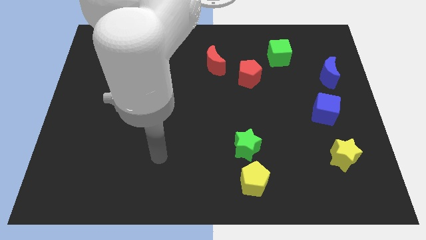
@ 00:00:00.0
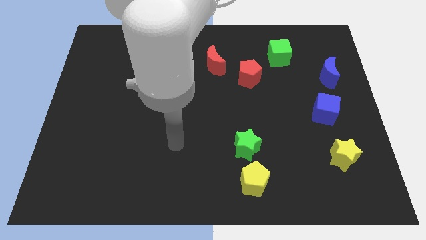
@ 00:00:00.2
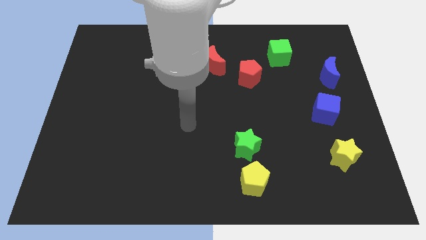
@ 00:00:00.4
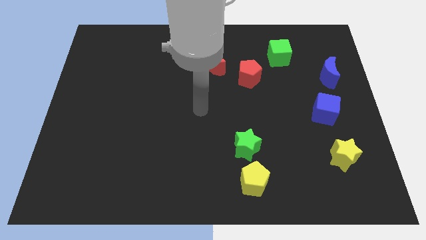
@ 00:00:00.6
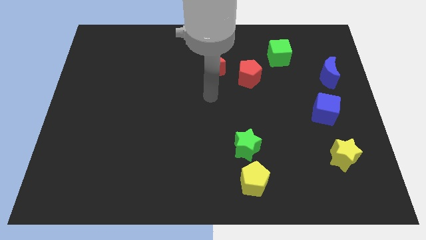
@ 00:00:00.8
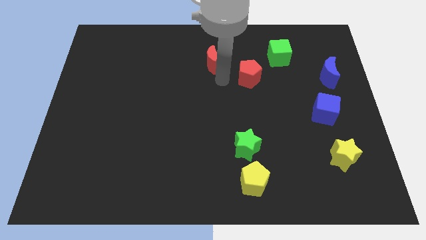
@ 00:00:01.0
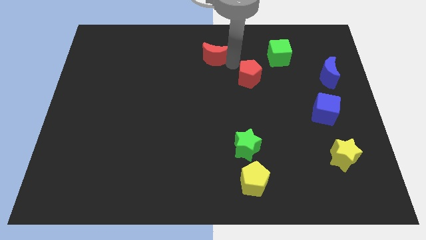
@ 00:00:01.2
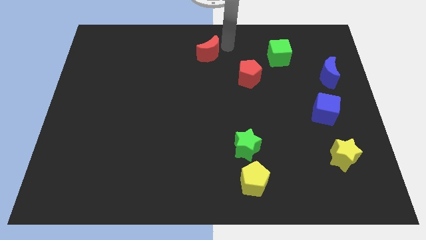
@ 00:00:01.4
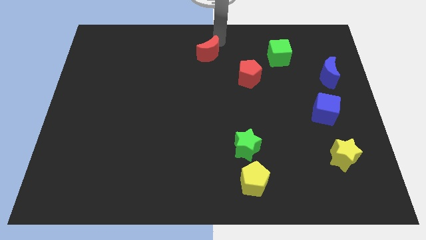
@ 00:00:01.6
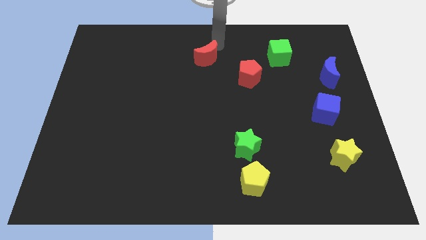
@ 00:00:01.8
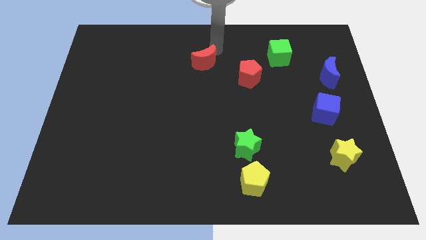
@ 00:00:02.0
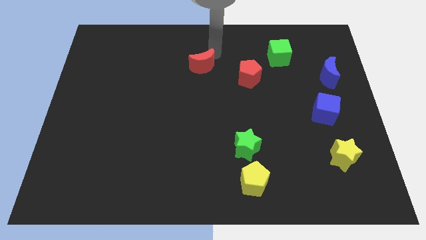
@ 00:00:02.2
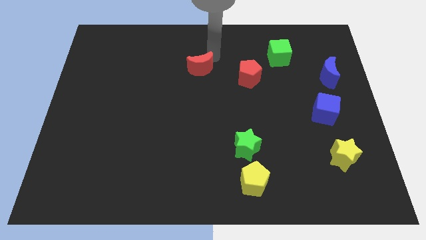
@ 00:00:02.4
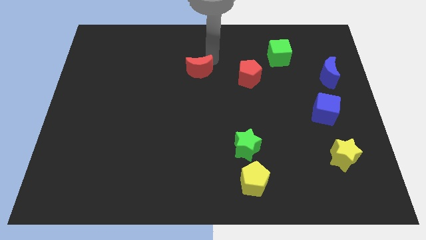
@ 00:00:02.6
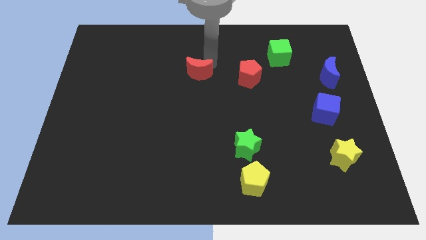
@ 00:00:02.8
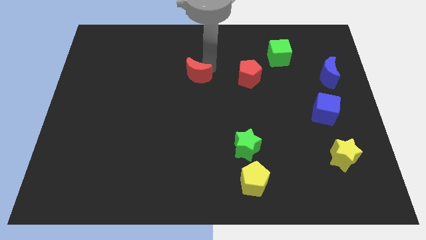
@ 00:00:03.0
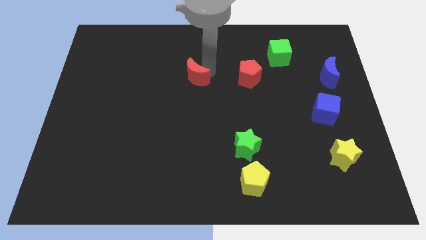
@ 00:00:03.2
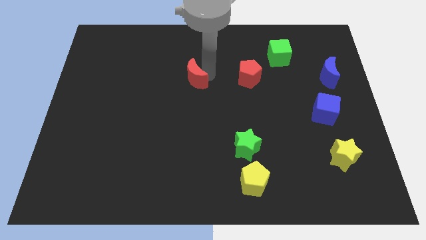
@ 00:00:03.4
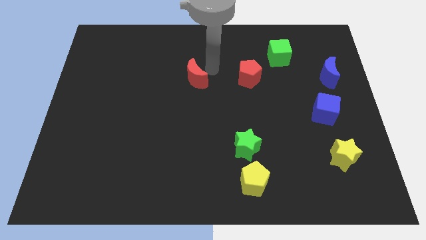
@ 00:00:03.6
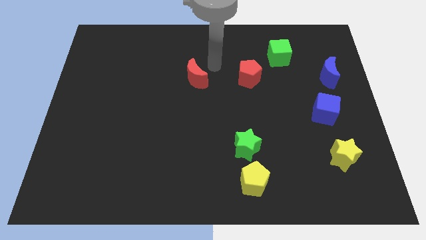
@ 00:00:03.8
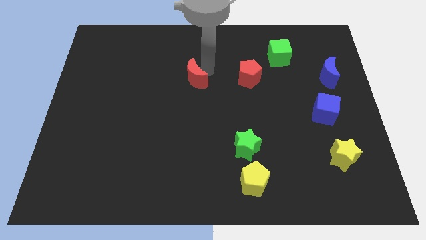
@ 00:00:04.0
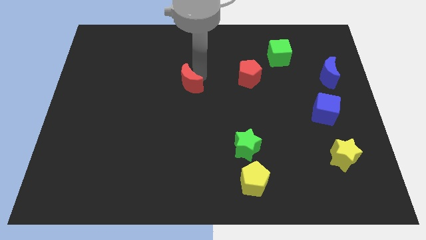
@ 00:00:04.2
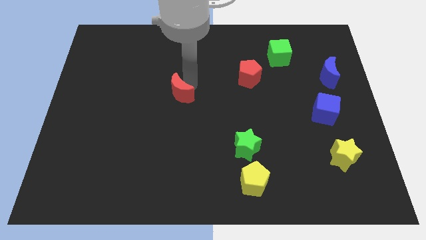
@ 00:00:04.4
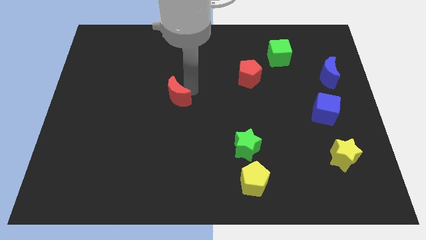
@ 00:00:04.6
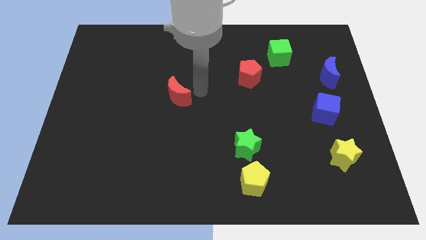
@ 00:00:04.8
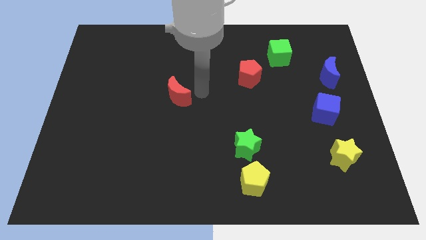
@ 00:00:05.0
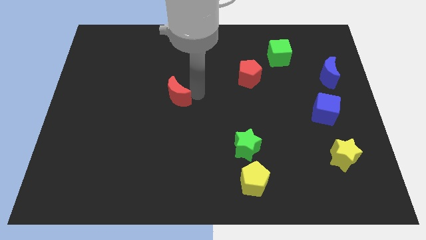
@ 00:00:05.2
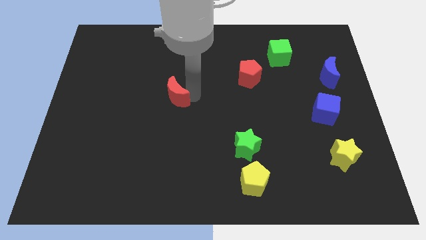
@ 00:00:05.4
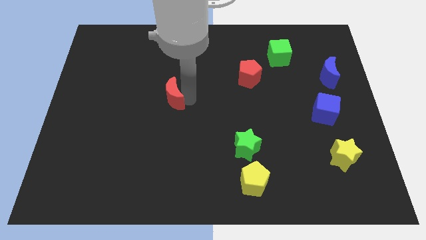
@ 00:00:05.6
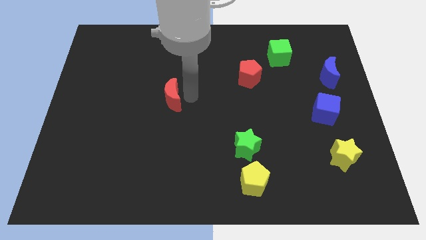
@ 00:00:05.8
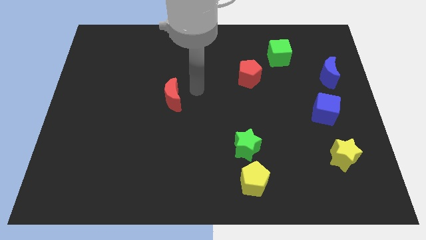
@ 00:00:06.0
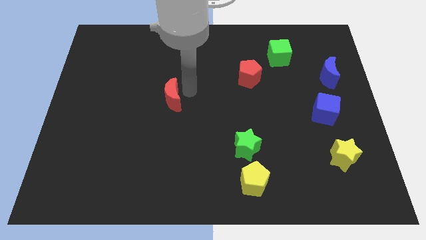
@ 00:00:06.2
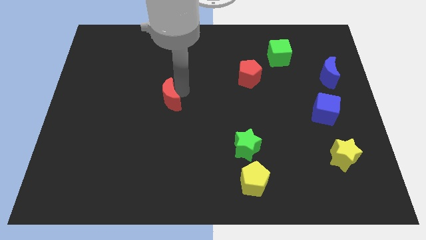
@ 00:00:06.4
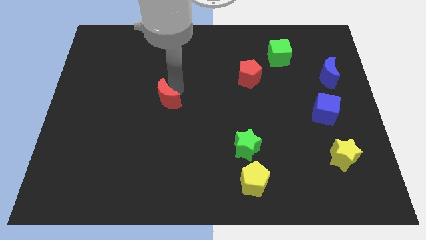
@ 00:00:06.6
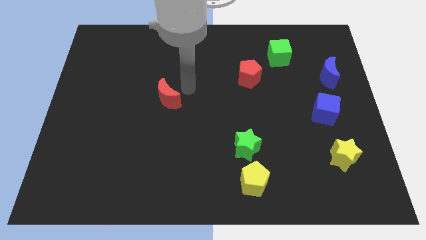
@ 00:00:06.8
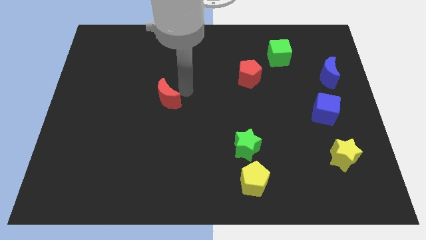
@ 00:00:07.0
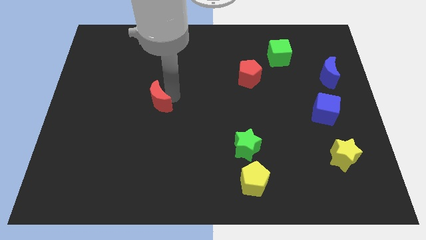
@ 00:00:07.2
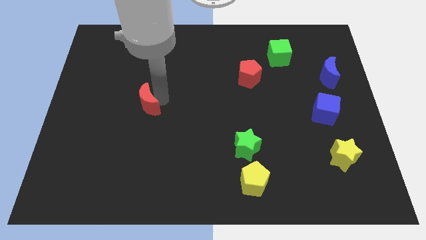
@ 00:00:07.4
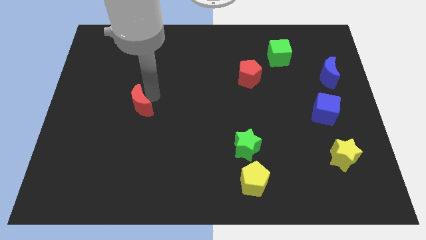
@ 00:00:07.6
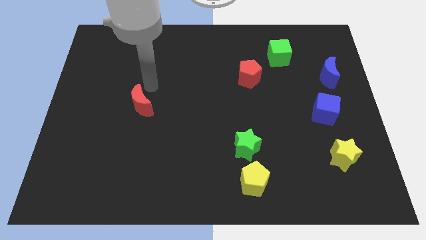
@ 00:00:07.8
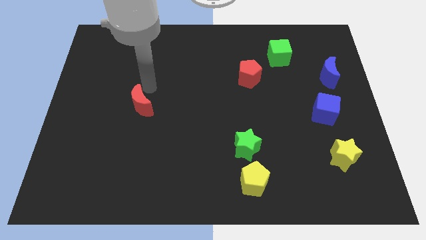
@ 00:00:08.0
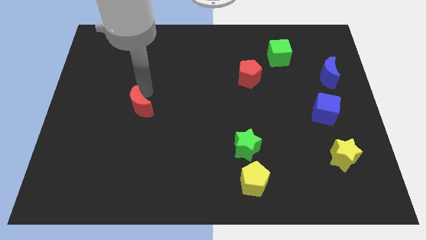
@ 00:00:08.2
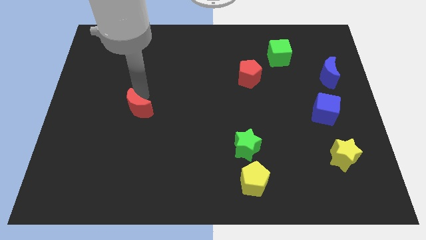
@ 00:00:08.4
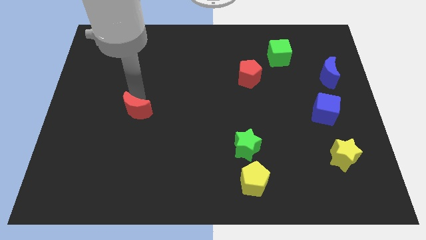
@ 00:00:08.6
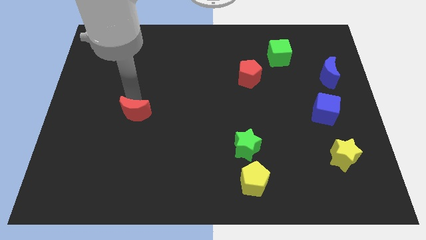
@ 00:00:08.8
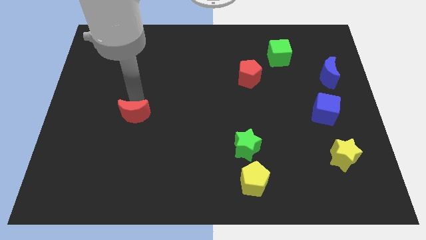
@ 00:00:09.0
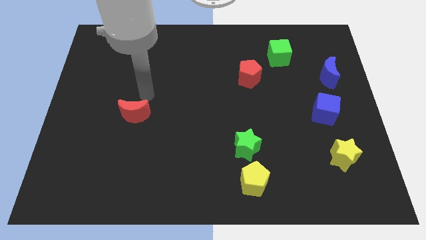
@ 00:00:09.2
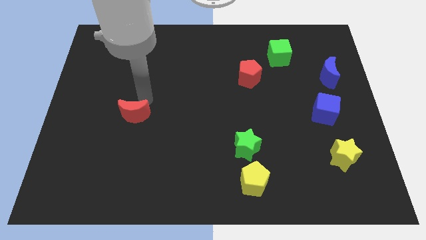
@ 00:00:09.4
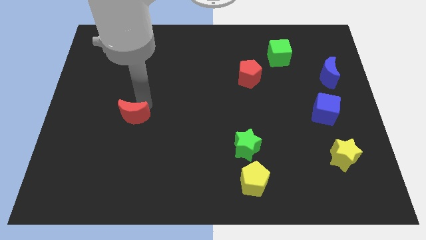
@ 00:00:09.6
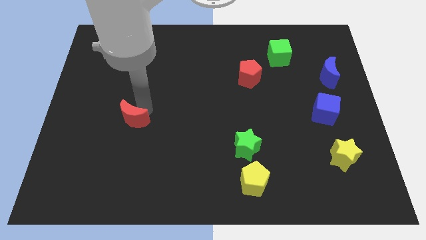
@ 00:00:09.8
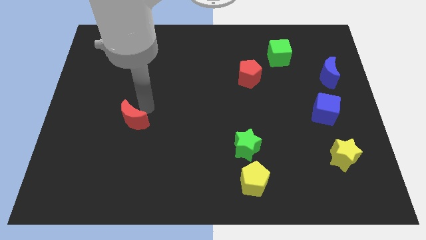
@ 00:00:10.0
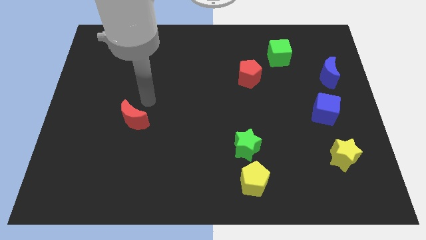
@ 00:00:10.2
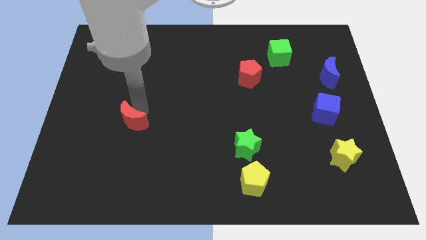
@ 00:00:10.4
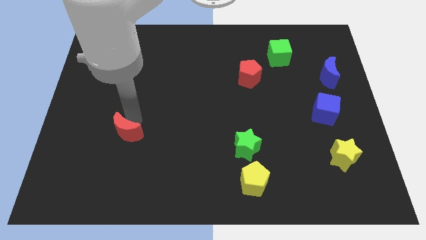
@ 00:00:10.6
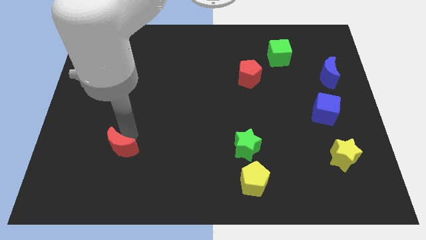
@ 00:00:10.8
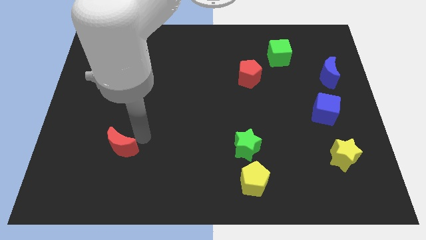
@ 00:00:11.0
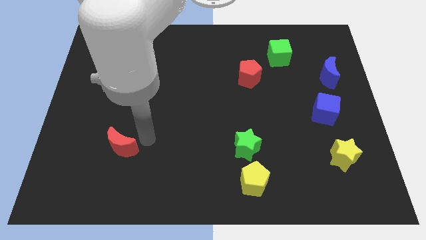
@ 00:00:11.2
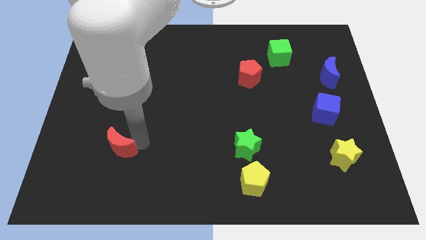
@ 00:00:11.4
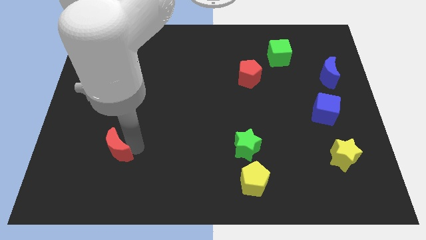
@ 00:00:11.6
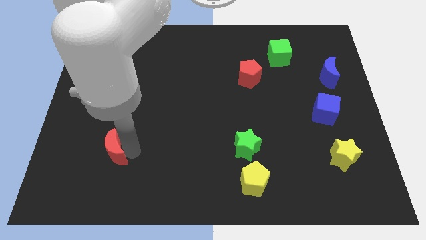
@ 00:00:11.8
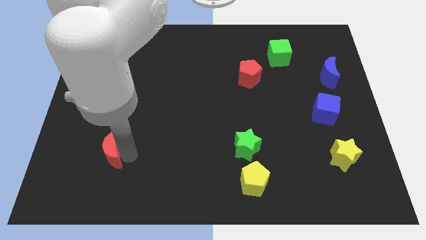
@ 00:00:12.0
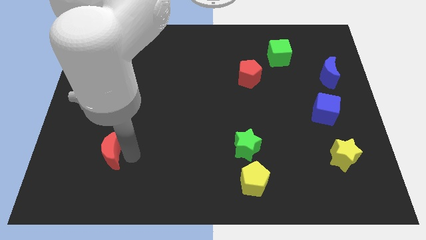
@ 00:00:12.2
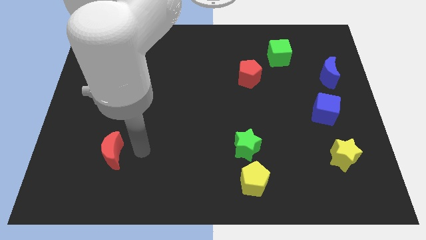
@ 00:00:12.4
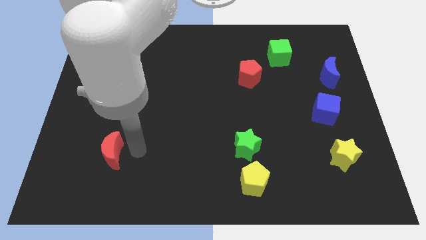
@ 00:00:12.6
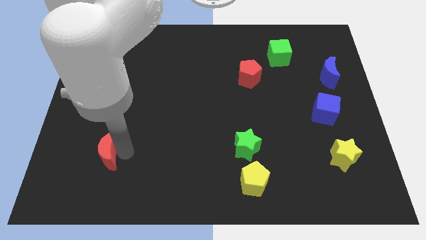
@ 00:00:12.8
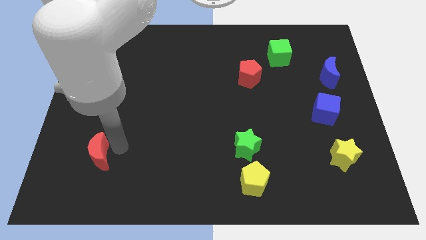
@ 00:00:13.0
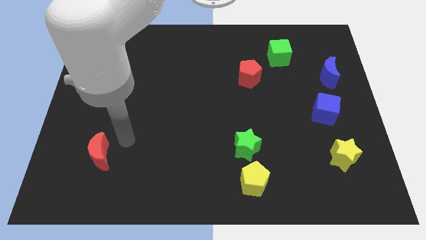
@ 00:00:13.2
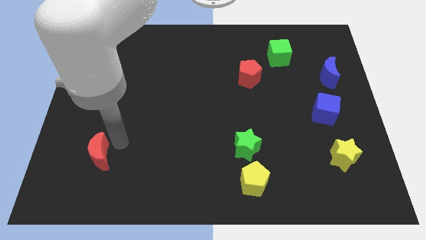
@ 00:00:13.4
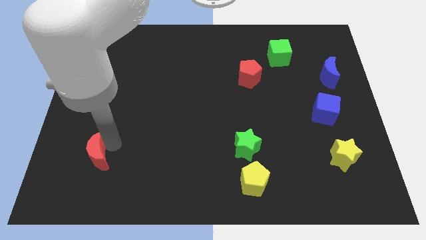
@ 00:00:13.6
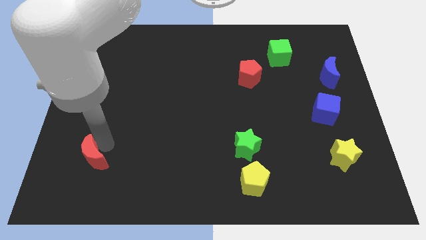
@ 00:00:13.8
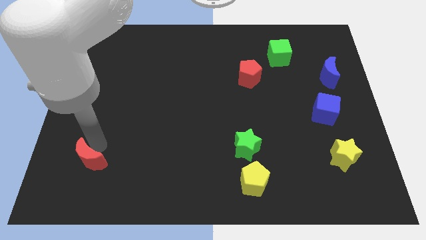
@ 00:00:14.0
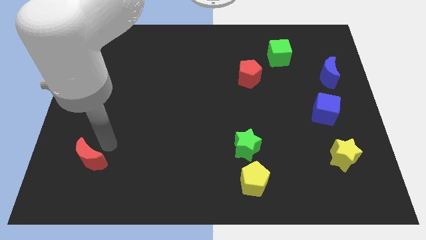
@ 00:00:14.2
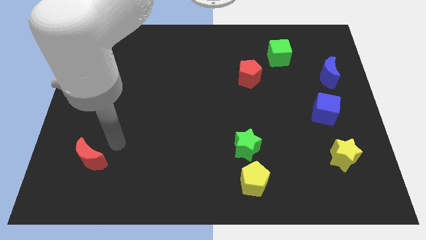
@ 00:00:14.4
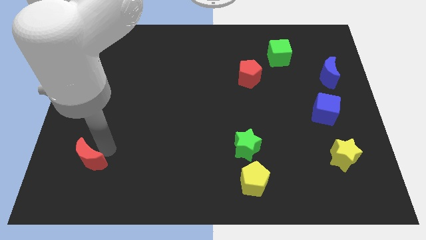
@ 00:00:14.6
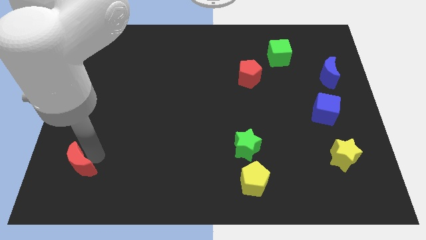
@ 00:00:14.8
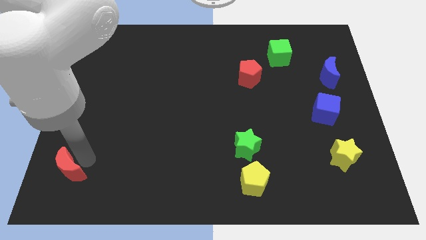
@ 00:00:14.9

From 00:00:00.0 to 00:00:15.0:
slide the red moon to the bottom left corner
